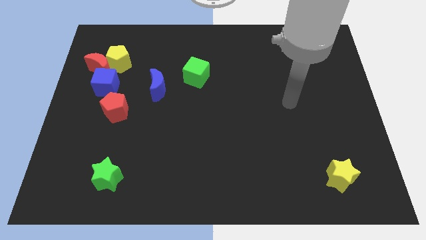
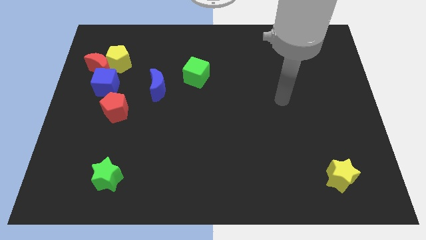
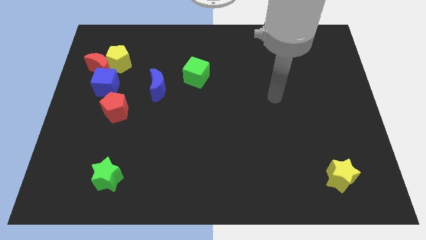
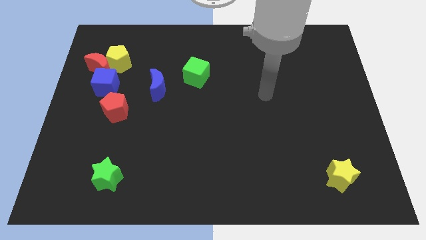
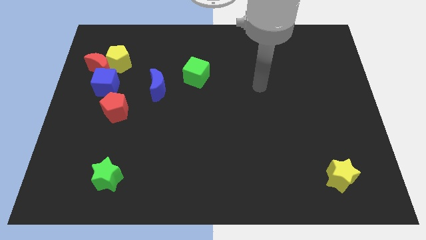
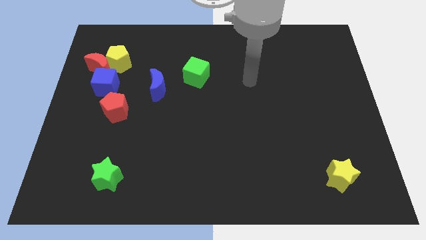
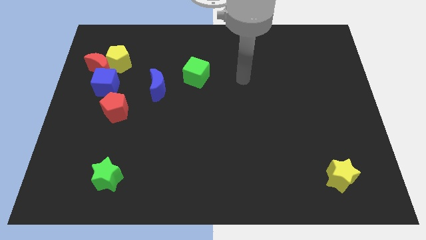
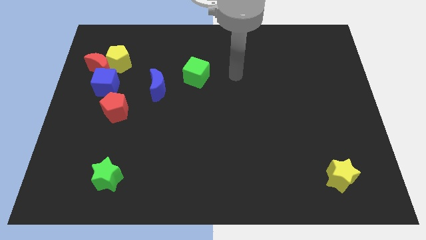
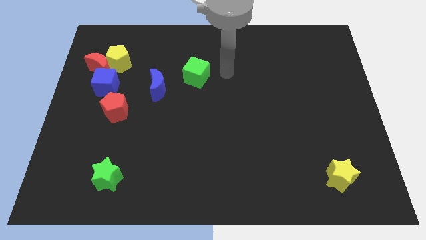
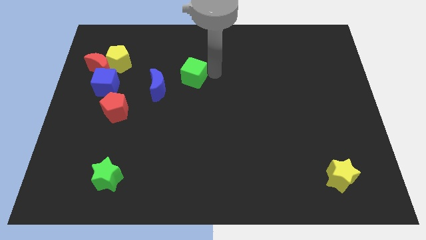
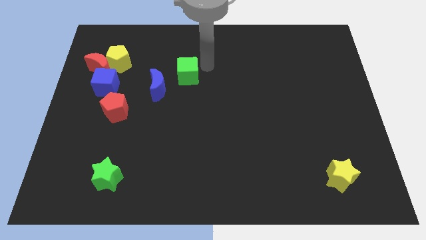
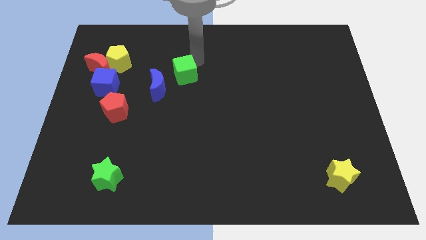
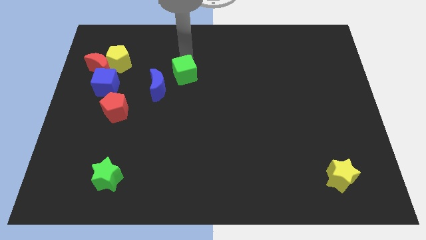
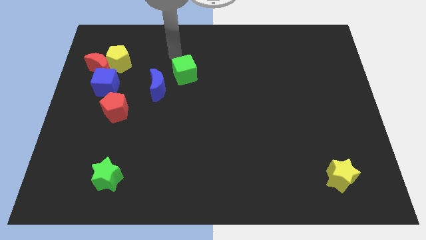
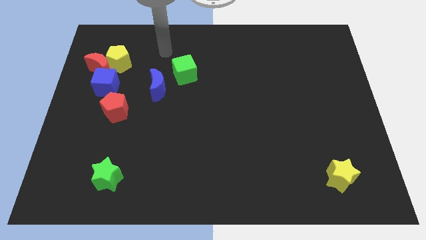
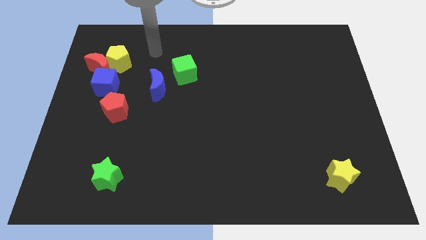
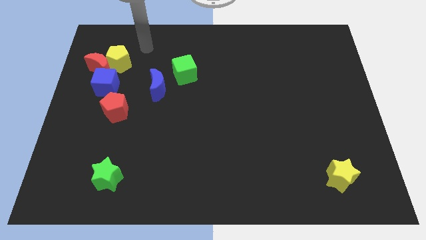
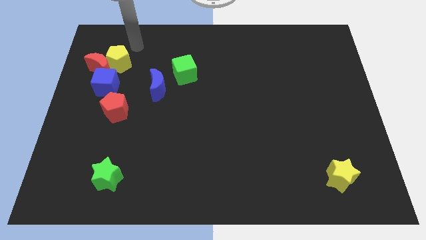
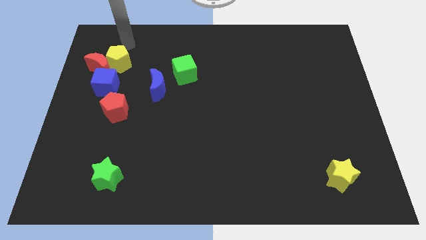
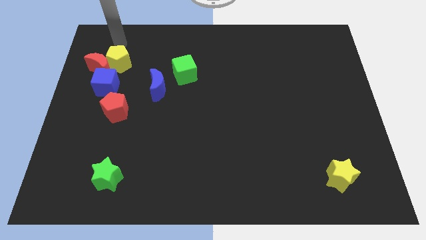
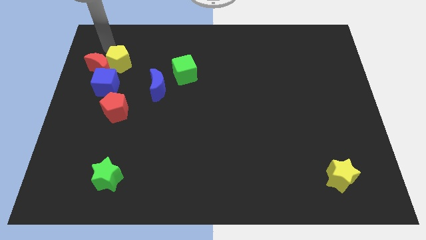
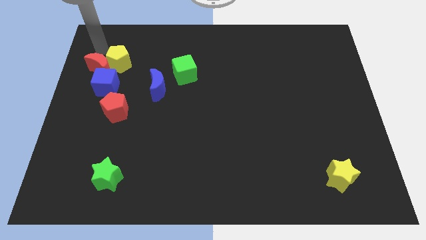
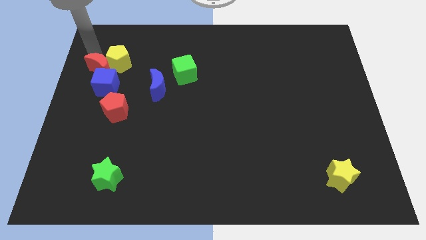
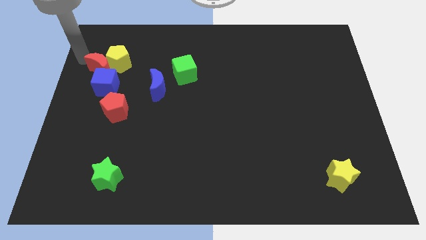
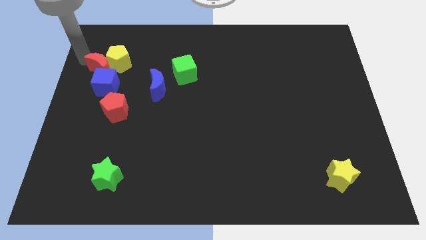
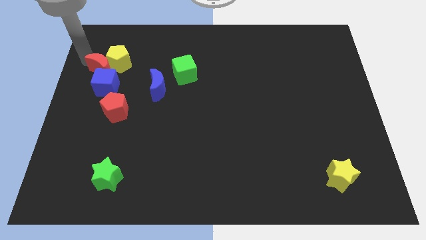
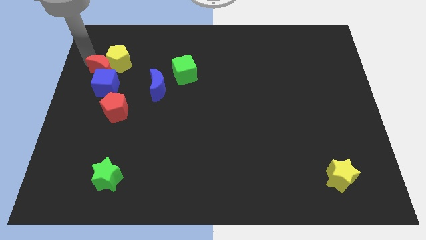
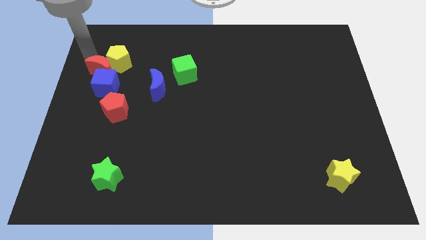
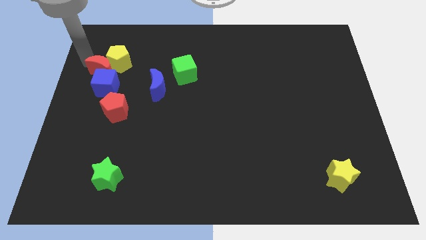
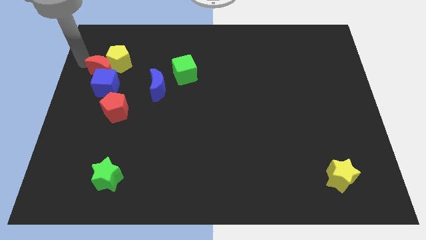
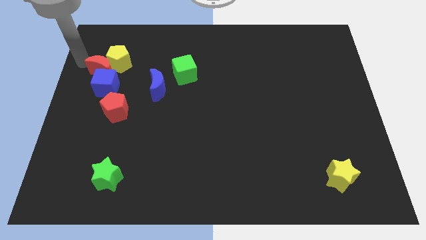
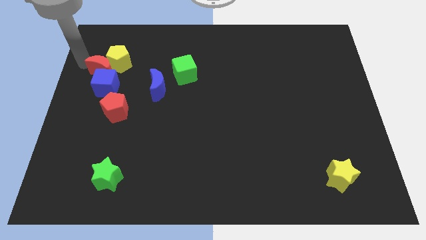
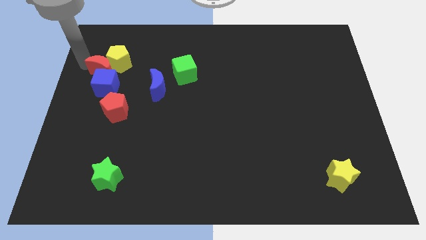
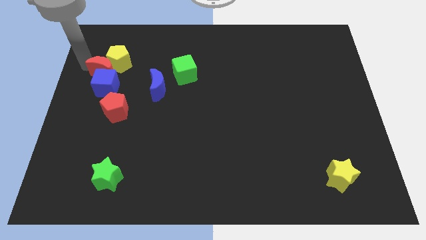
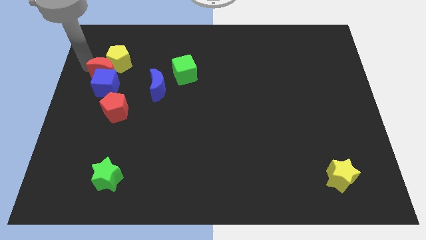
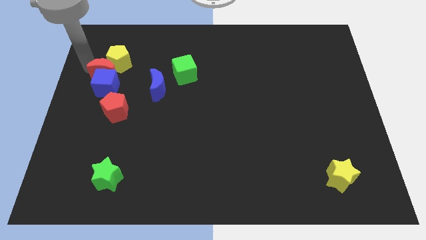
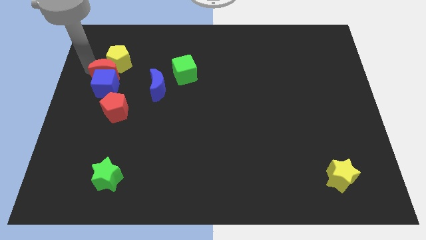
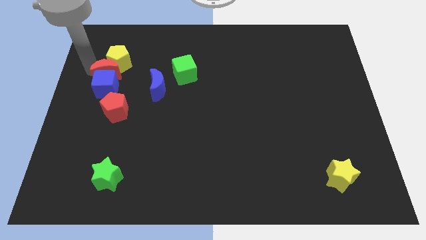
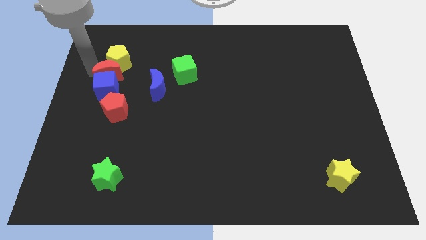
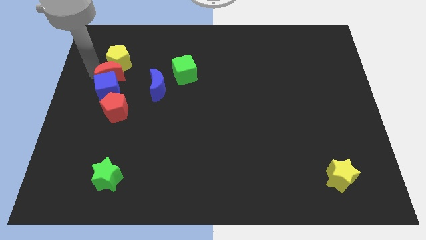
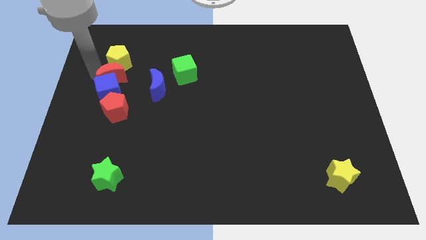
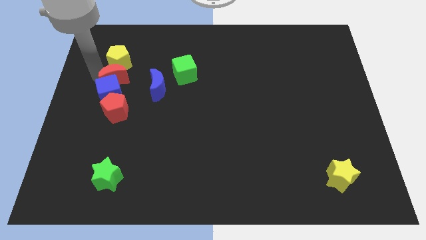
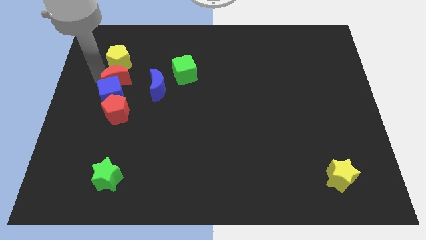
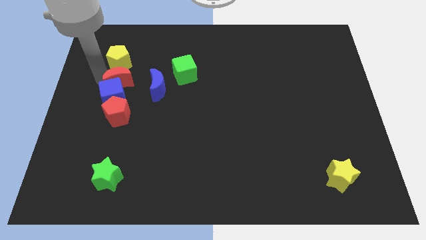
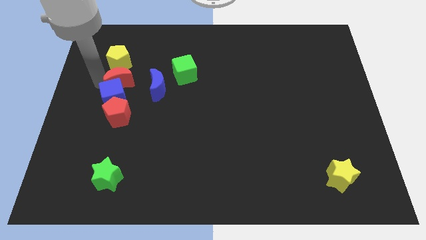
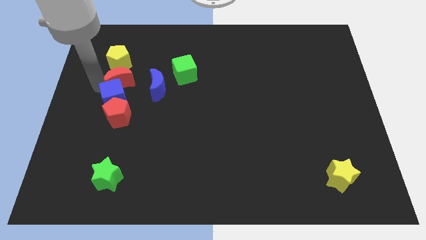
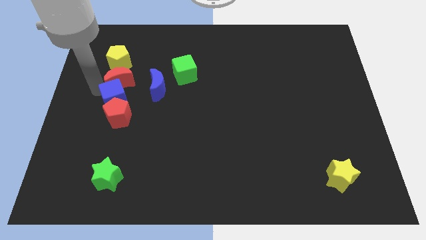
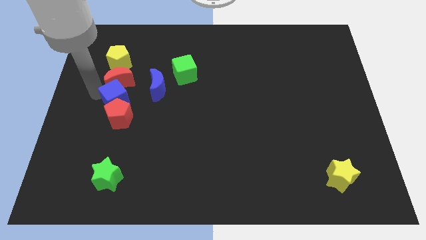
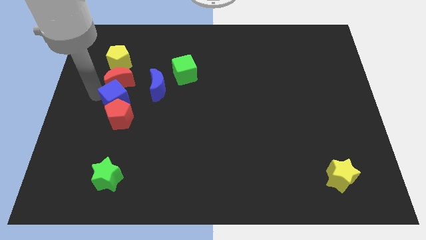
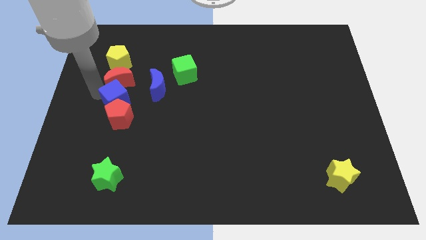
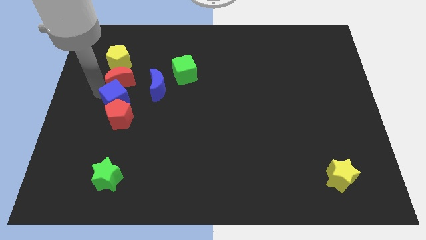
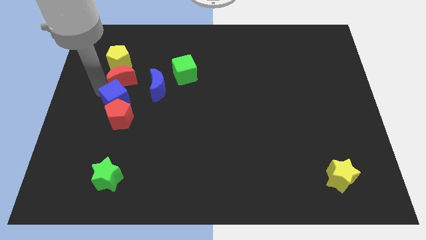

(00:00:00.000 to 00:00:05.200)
push the red moon to the left of the green cube

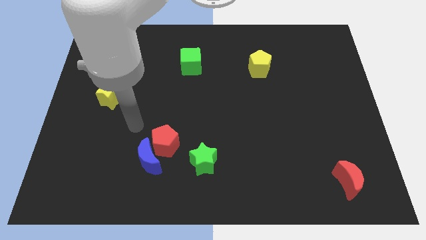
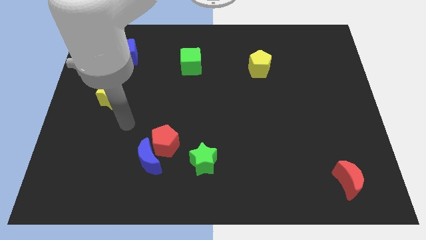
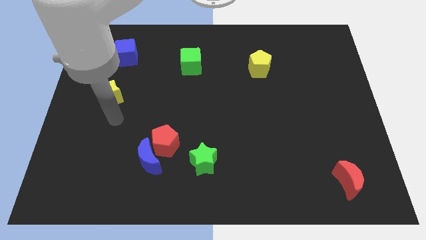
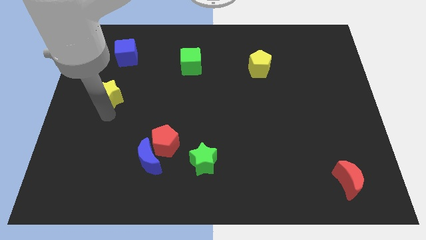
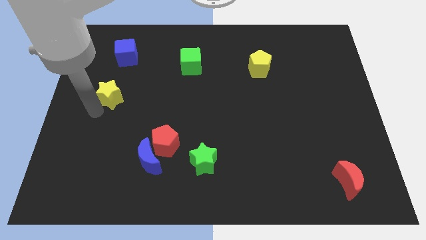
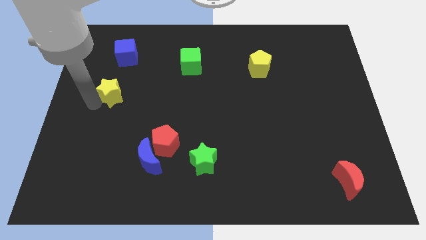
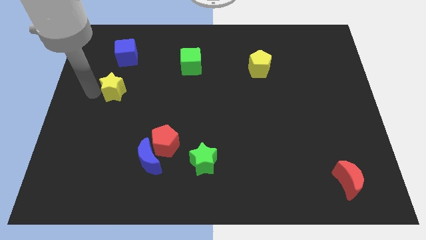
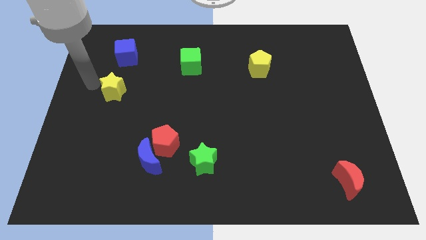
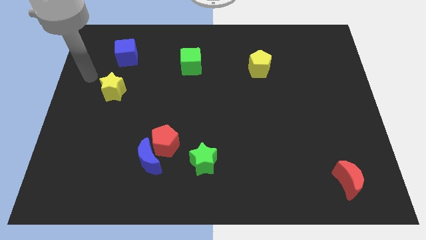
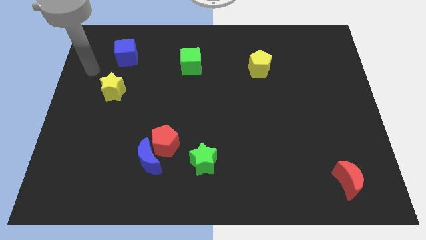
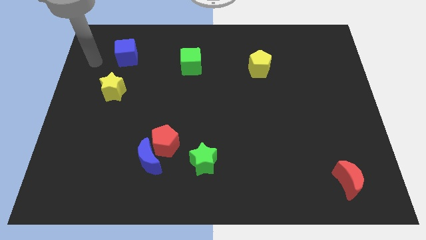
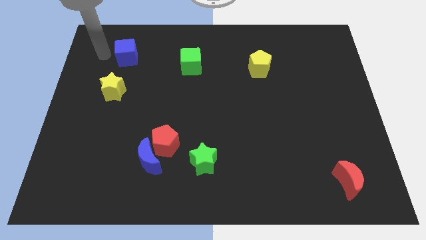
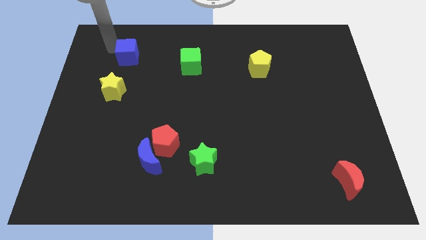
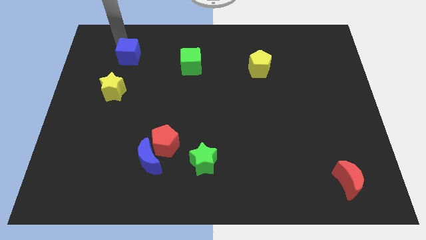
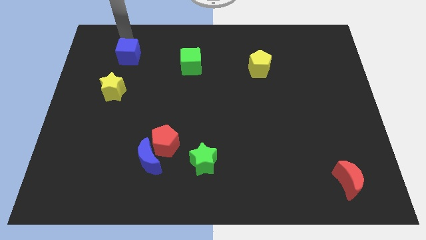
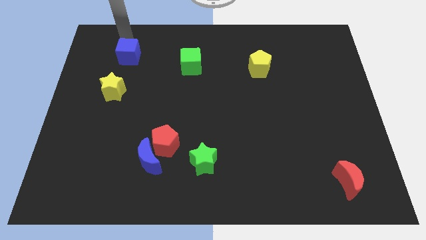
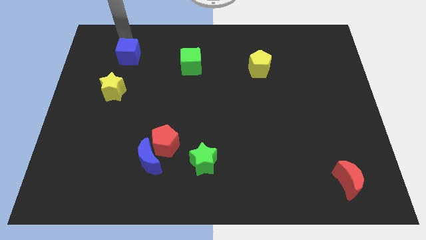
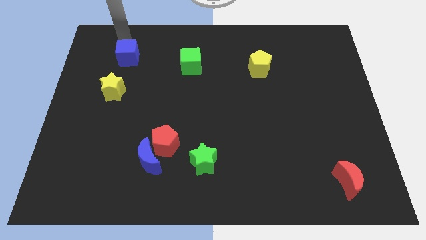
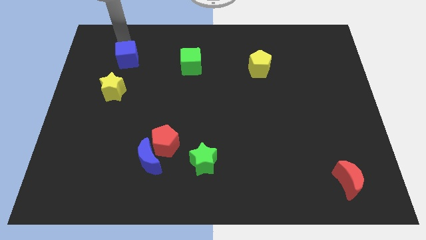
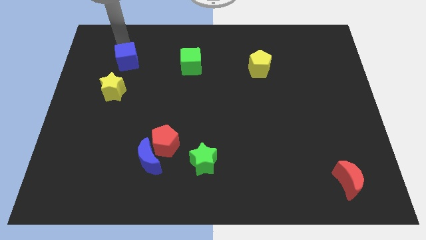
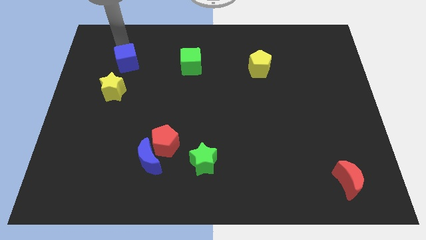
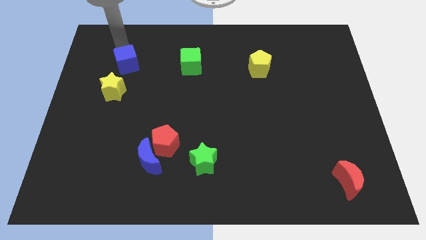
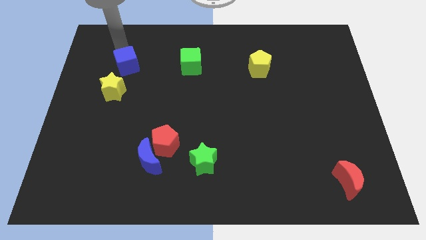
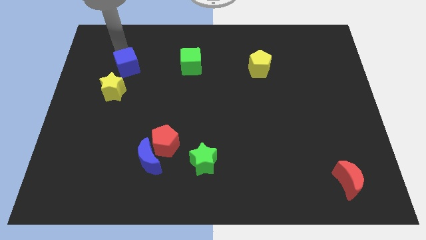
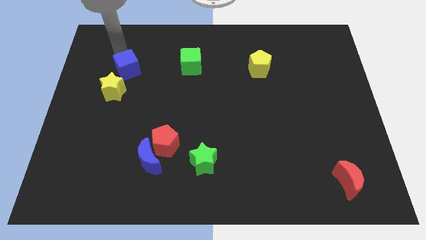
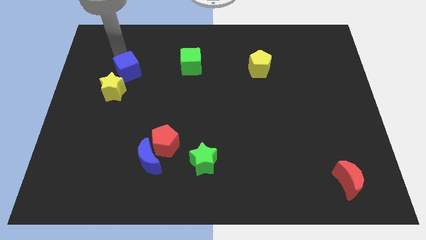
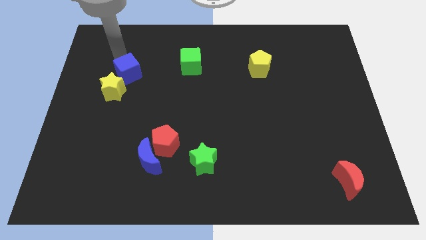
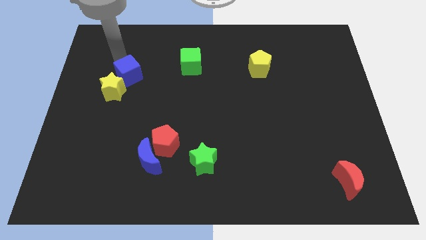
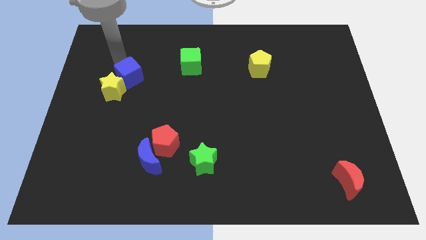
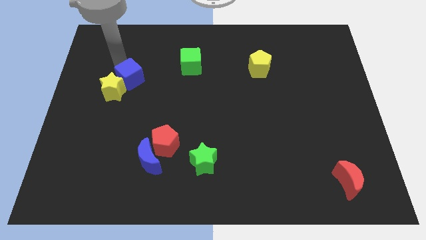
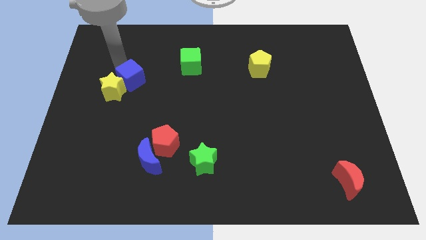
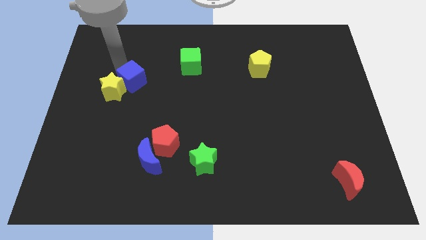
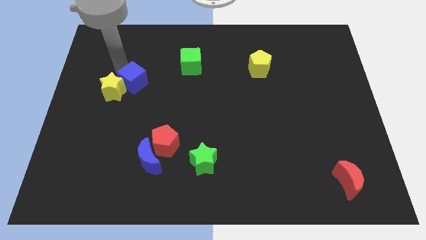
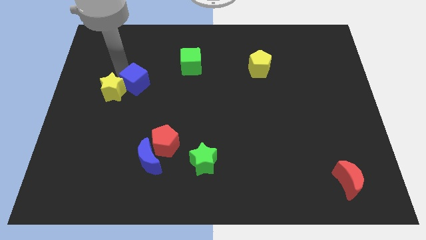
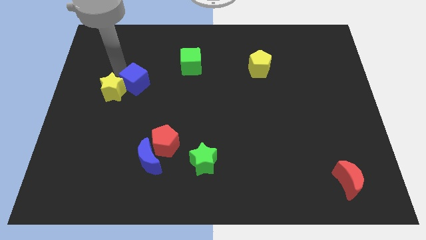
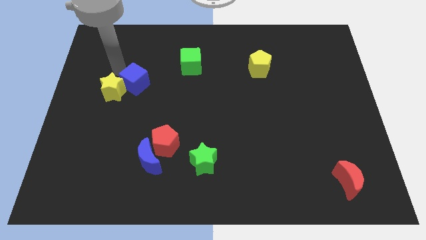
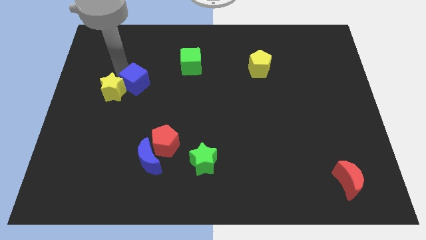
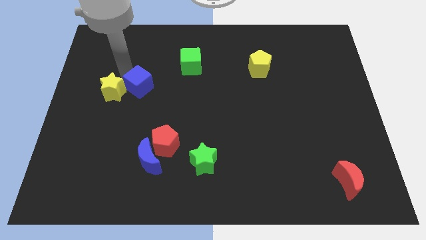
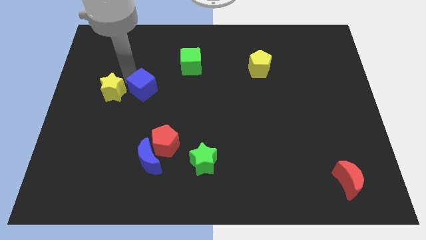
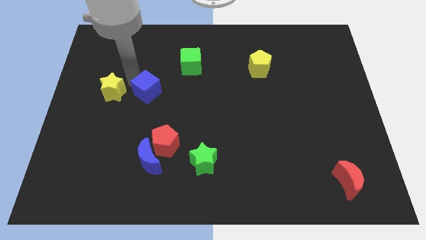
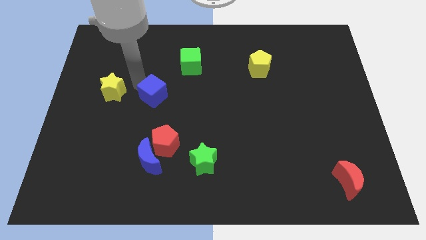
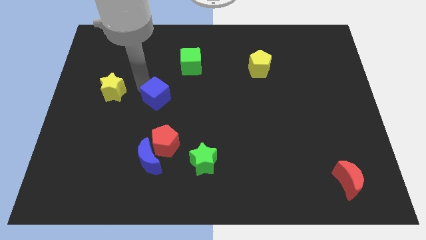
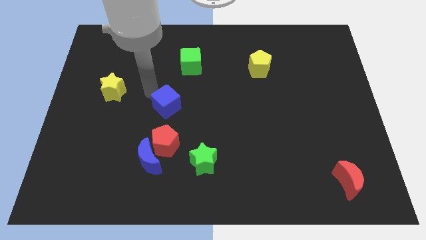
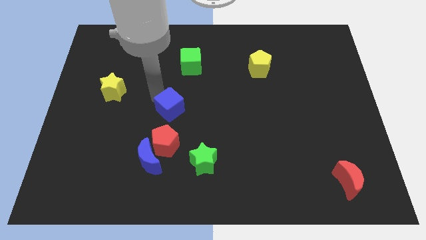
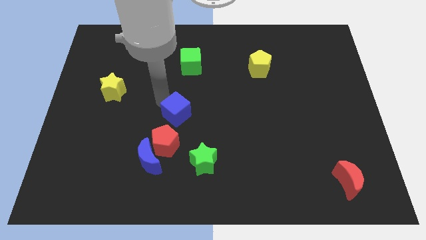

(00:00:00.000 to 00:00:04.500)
put the blue cube to the top right of the red pentagon
